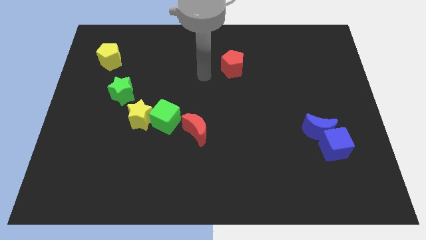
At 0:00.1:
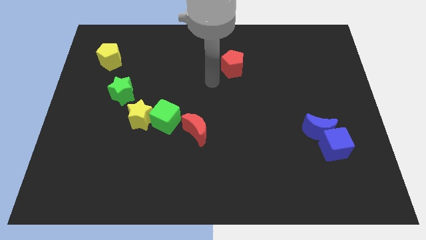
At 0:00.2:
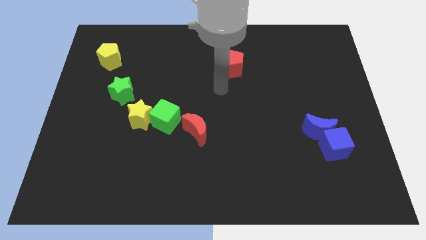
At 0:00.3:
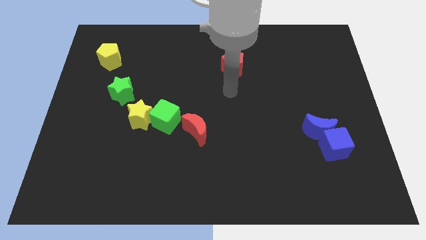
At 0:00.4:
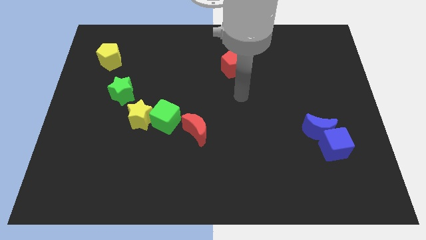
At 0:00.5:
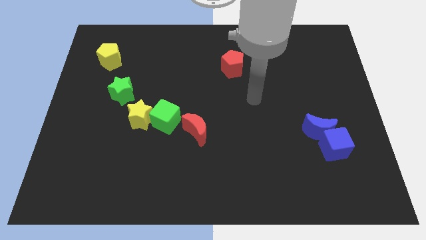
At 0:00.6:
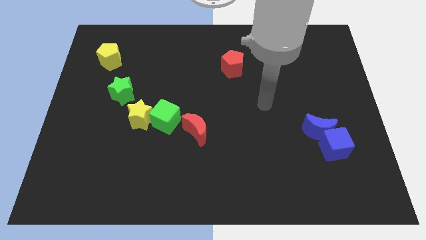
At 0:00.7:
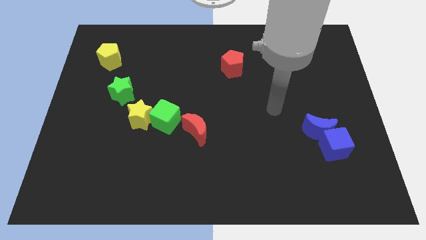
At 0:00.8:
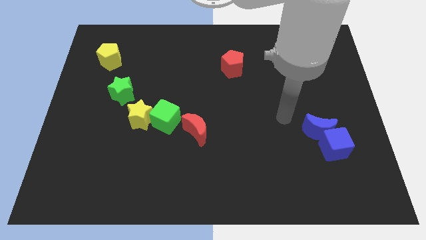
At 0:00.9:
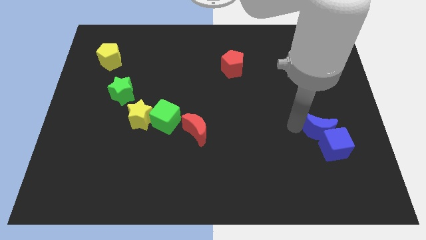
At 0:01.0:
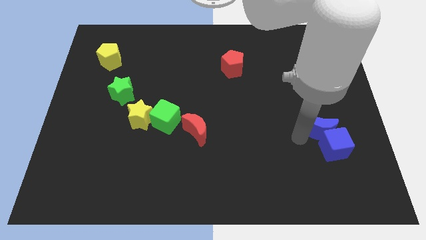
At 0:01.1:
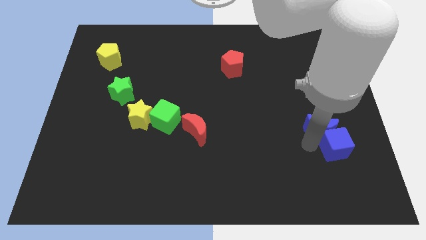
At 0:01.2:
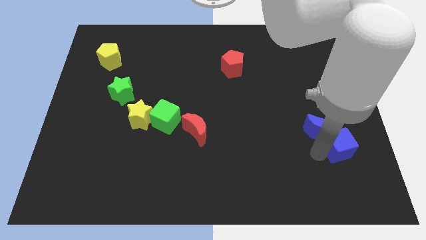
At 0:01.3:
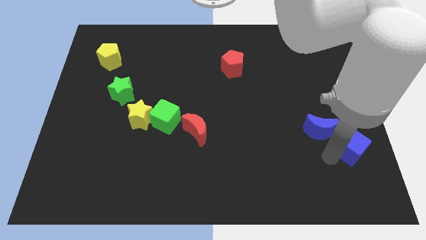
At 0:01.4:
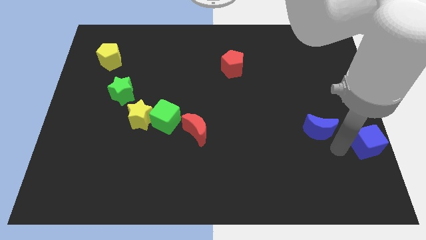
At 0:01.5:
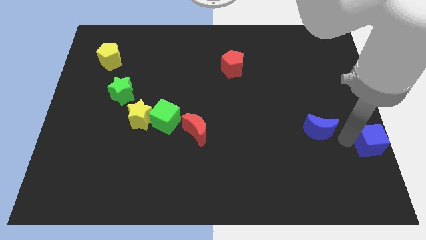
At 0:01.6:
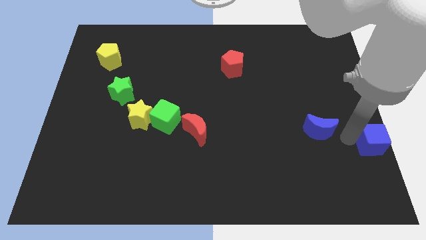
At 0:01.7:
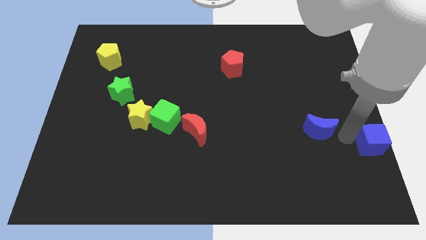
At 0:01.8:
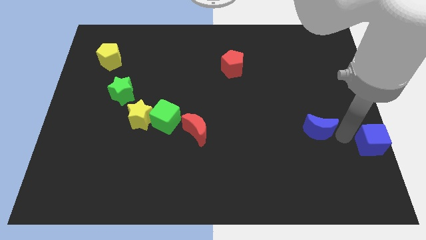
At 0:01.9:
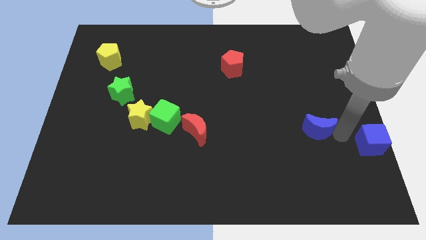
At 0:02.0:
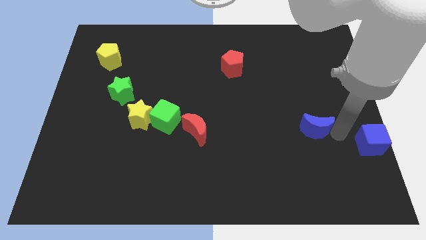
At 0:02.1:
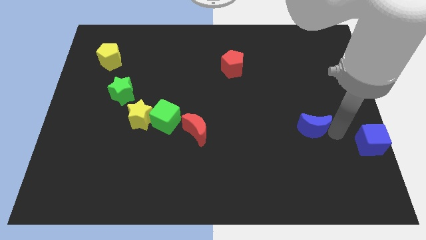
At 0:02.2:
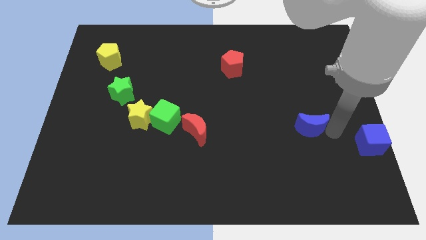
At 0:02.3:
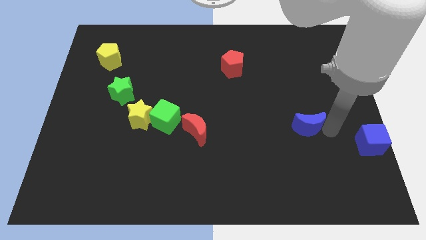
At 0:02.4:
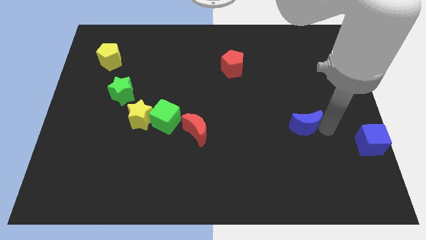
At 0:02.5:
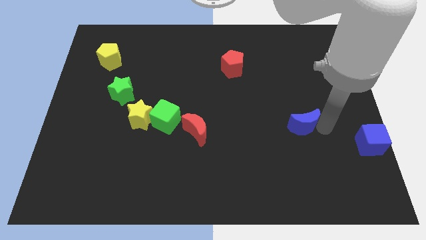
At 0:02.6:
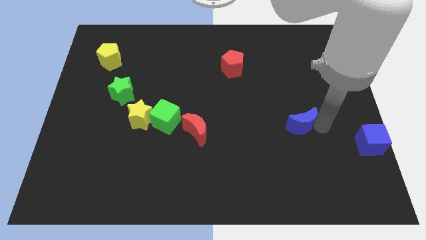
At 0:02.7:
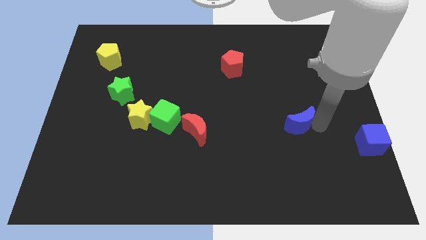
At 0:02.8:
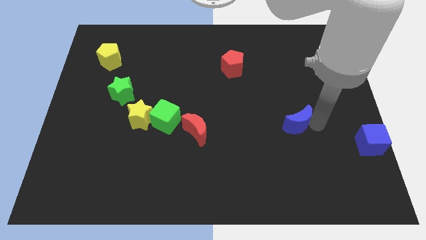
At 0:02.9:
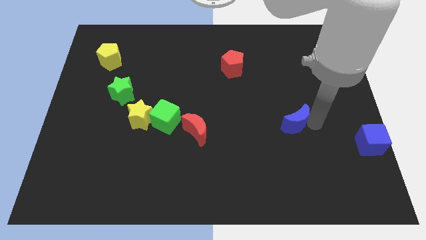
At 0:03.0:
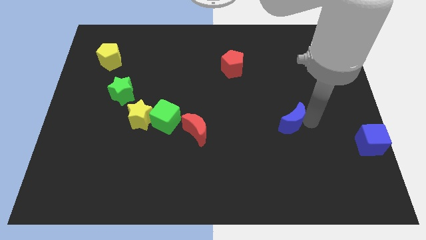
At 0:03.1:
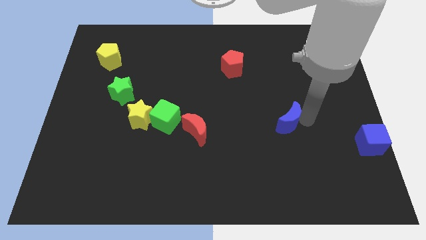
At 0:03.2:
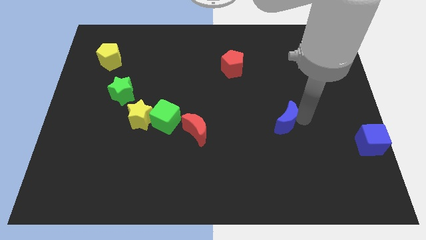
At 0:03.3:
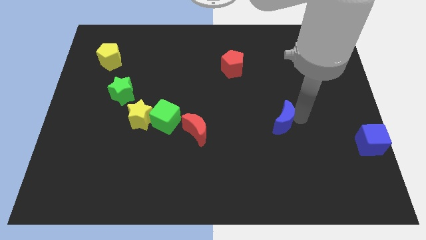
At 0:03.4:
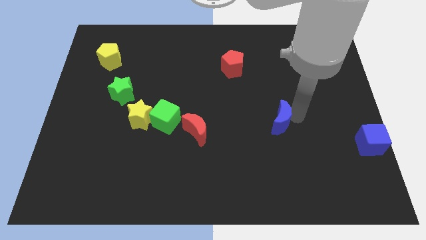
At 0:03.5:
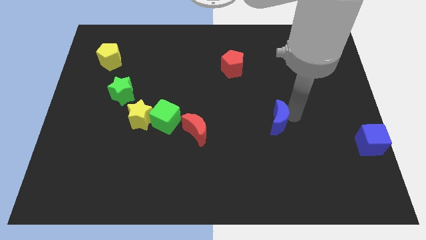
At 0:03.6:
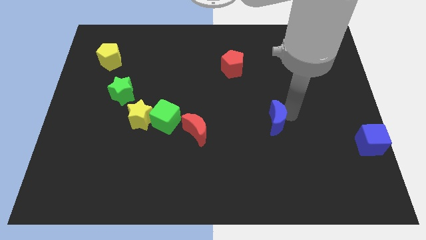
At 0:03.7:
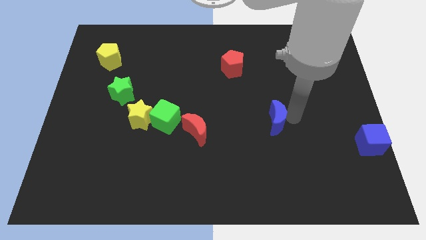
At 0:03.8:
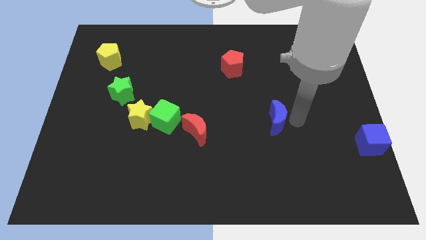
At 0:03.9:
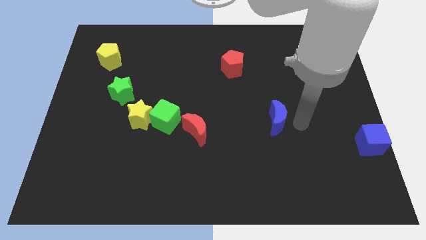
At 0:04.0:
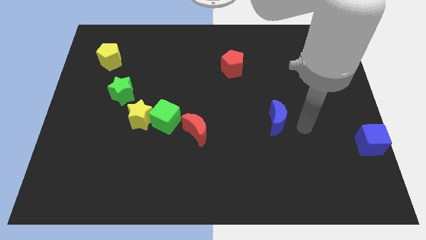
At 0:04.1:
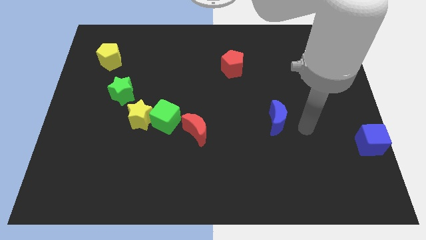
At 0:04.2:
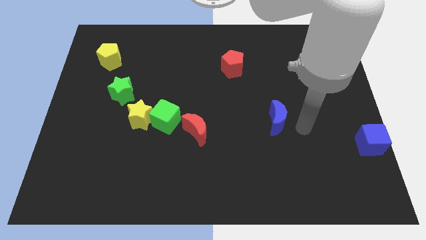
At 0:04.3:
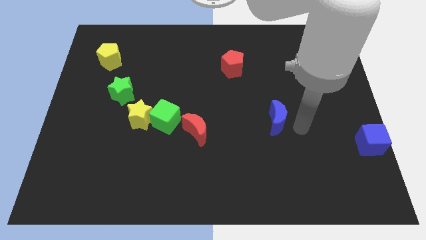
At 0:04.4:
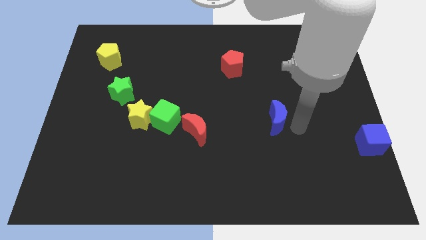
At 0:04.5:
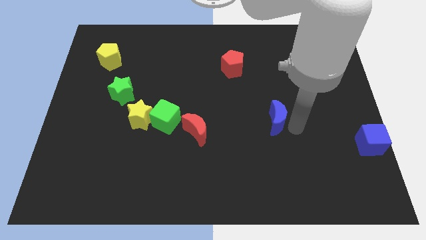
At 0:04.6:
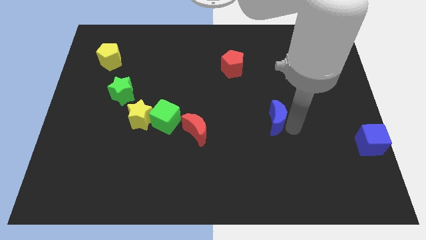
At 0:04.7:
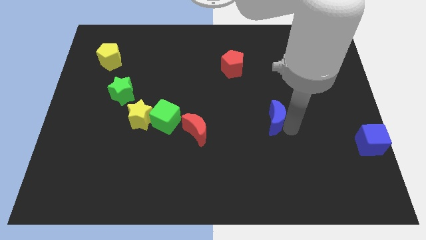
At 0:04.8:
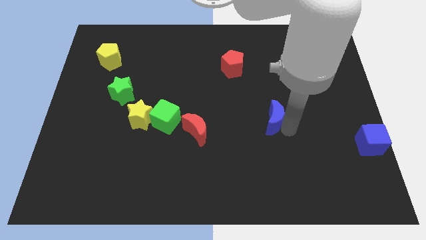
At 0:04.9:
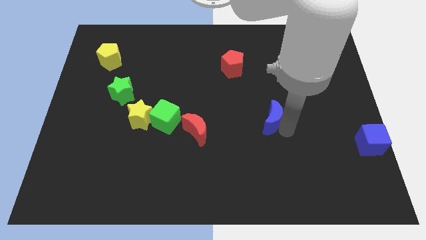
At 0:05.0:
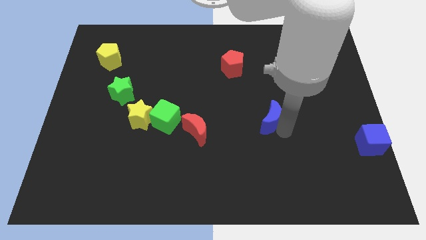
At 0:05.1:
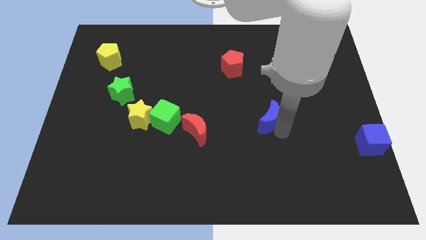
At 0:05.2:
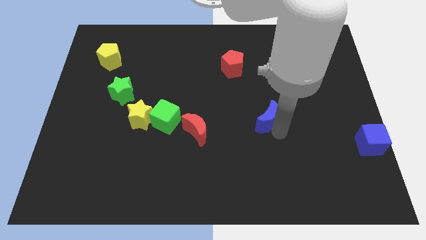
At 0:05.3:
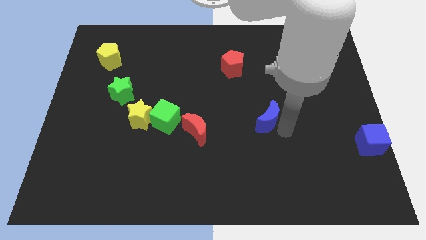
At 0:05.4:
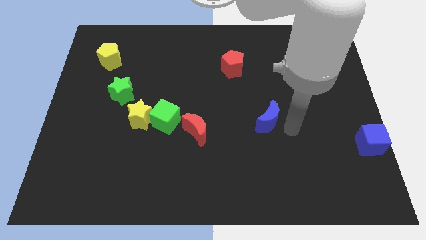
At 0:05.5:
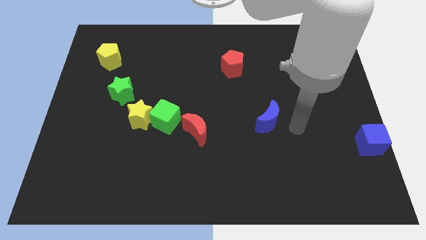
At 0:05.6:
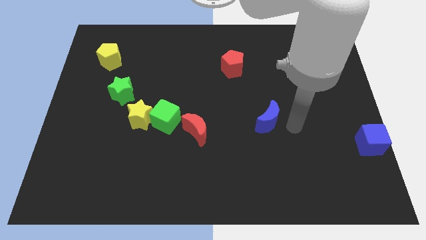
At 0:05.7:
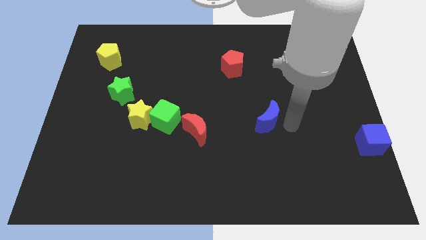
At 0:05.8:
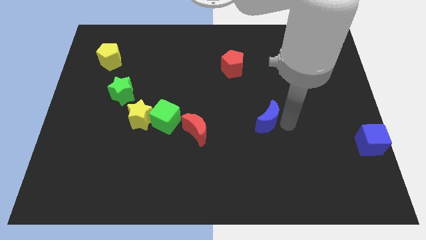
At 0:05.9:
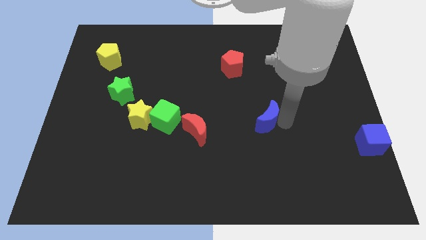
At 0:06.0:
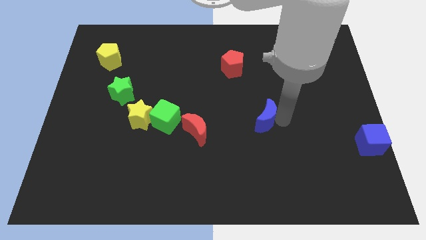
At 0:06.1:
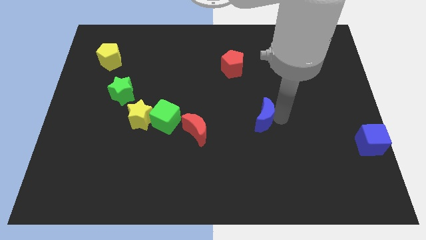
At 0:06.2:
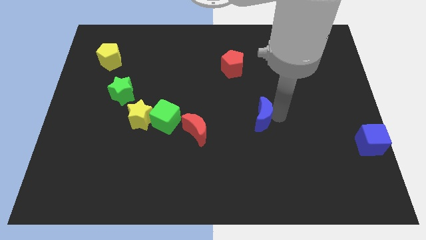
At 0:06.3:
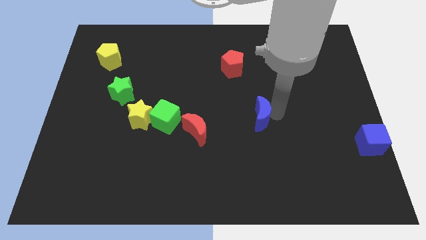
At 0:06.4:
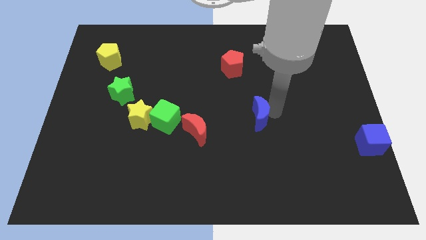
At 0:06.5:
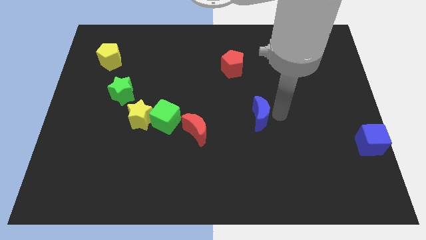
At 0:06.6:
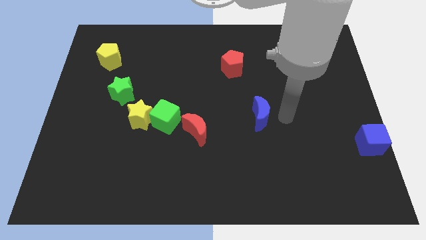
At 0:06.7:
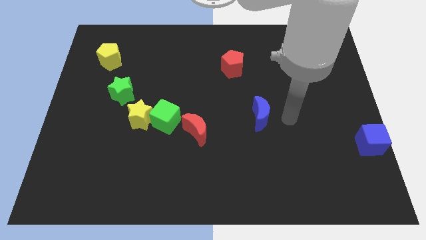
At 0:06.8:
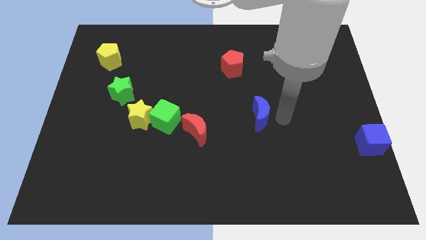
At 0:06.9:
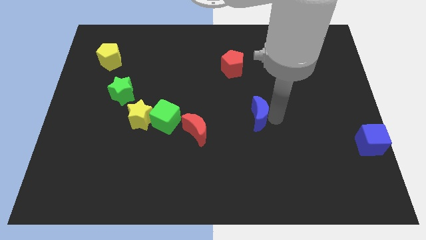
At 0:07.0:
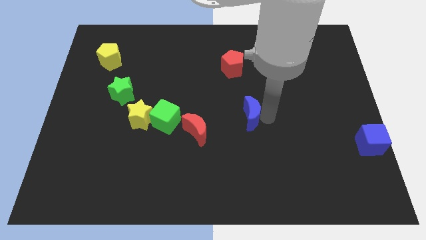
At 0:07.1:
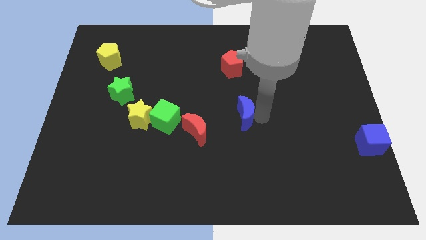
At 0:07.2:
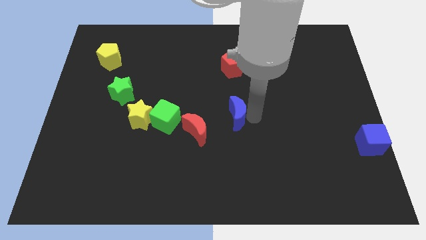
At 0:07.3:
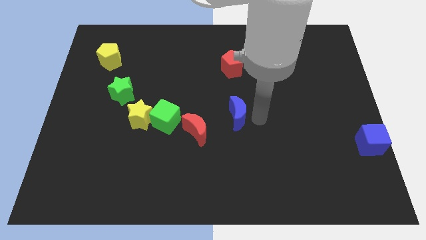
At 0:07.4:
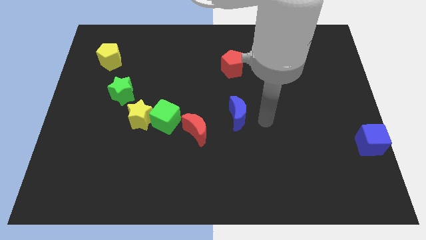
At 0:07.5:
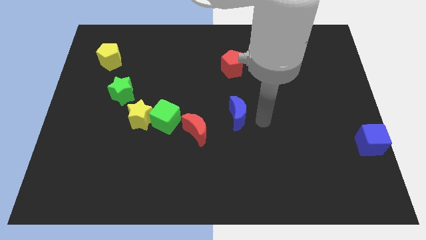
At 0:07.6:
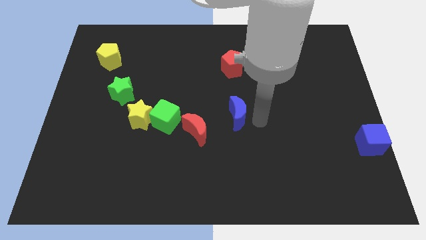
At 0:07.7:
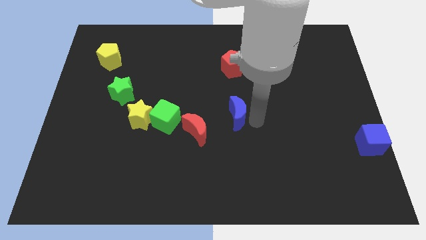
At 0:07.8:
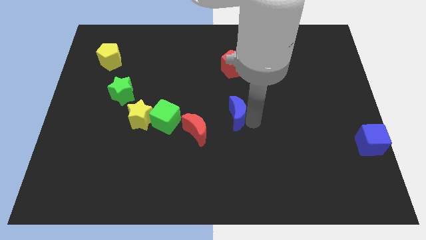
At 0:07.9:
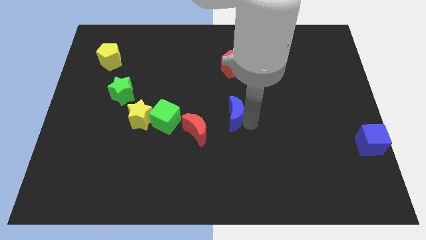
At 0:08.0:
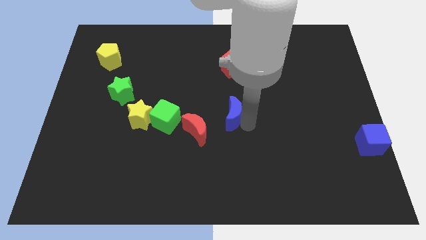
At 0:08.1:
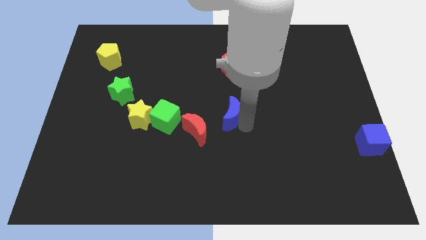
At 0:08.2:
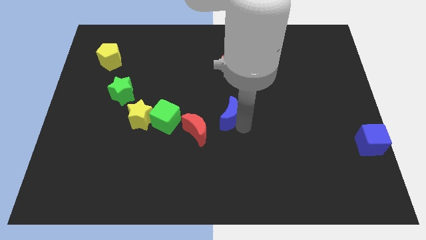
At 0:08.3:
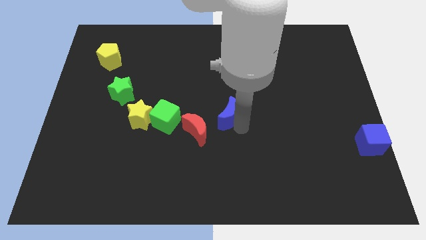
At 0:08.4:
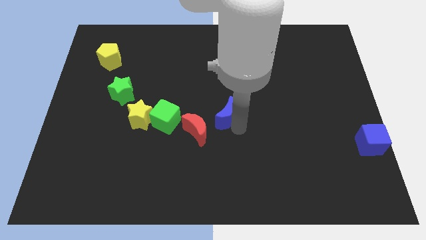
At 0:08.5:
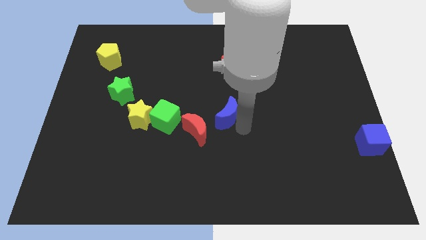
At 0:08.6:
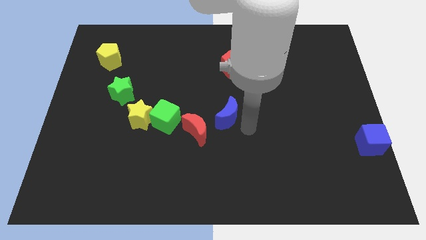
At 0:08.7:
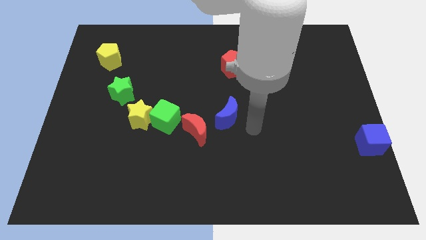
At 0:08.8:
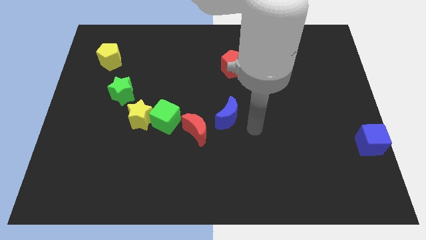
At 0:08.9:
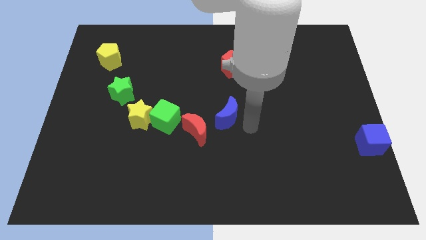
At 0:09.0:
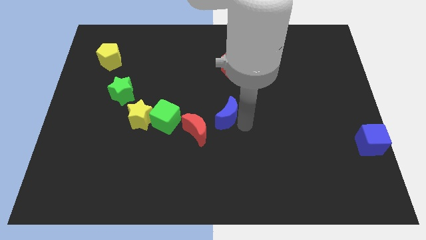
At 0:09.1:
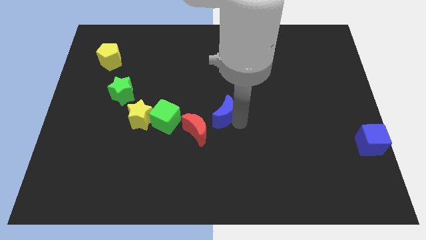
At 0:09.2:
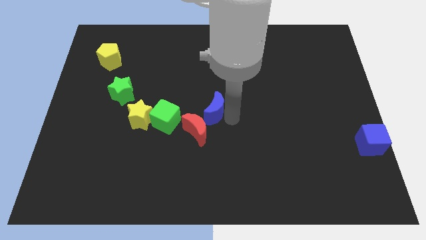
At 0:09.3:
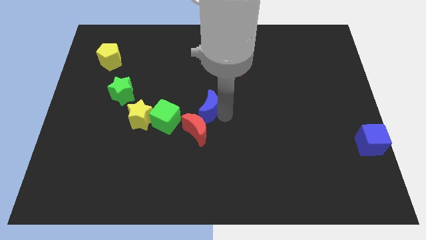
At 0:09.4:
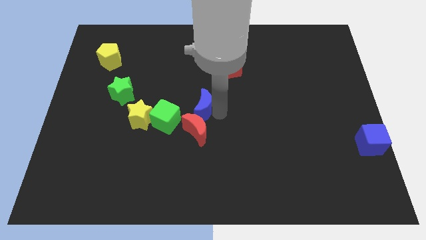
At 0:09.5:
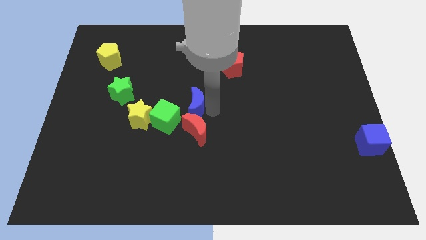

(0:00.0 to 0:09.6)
move the blue moon to the top left side of the red moon
